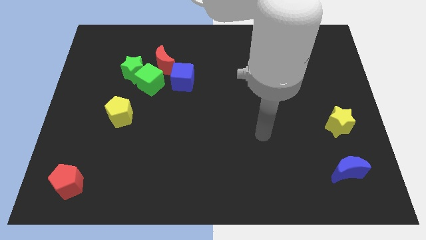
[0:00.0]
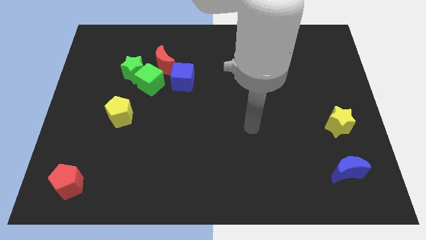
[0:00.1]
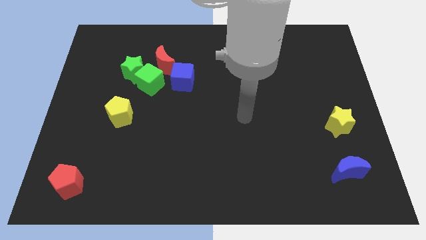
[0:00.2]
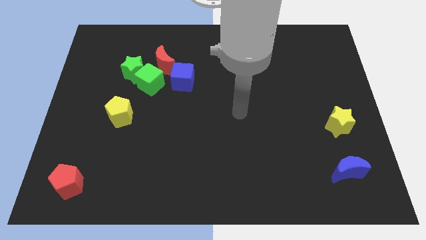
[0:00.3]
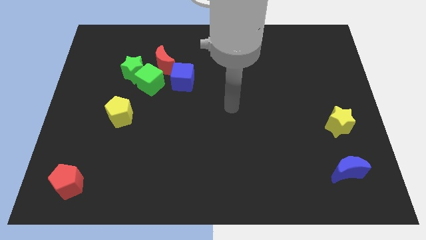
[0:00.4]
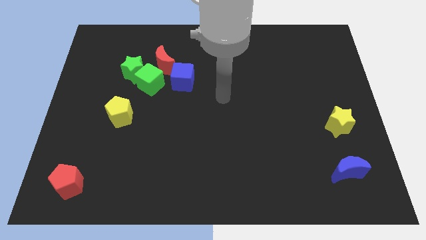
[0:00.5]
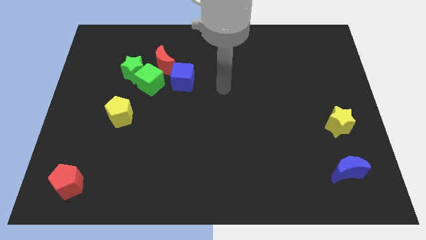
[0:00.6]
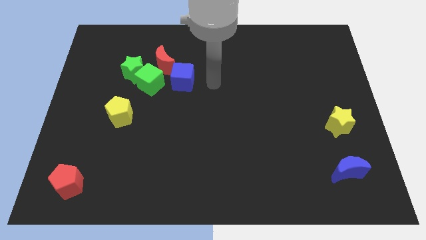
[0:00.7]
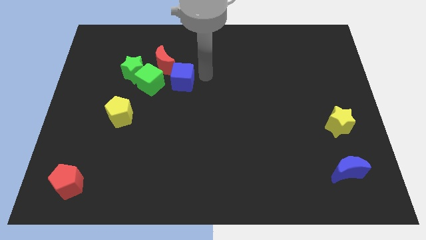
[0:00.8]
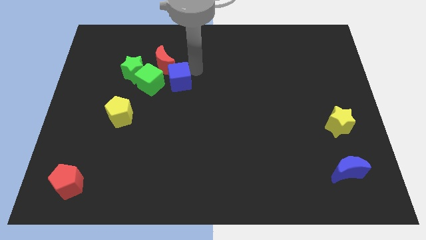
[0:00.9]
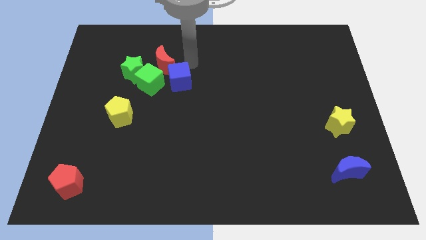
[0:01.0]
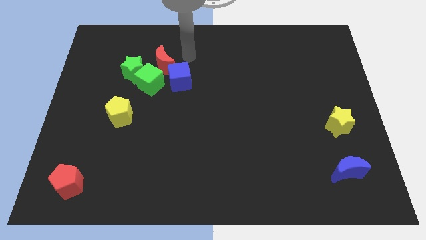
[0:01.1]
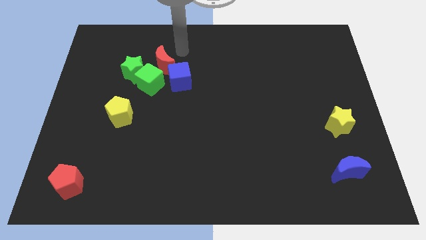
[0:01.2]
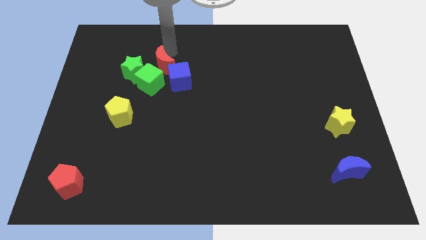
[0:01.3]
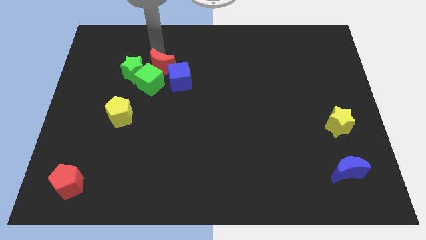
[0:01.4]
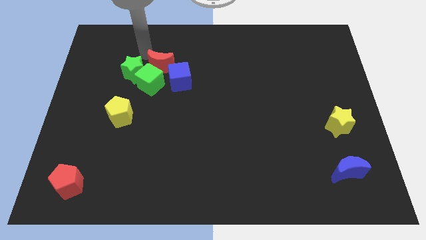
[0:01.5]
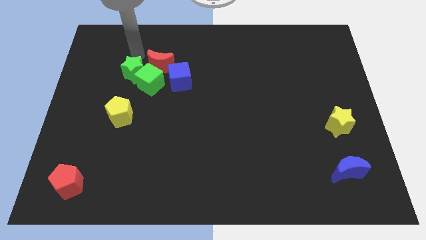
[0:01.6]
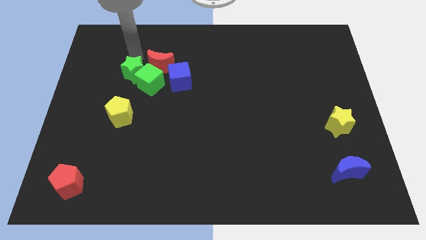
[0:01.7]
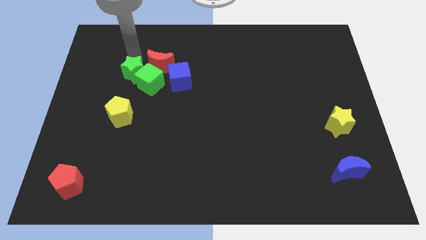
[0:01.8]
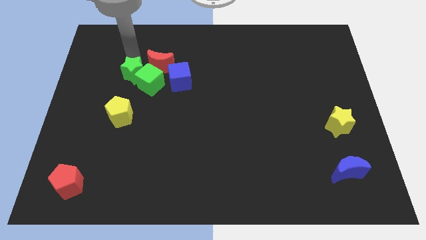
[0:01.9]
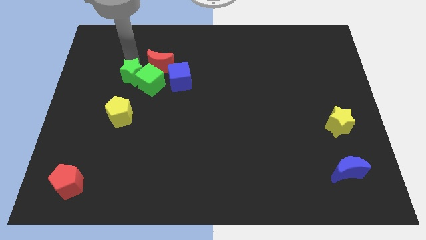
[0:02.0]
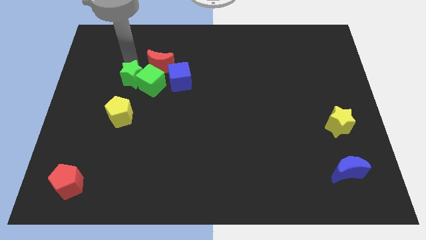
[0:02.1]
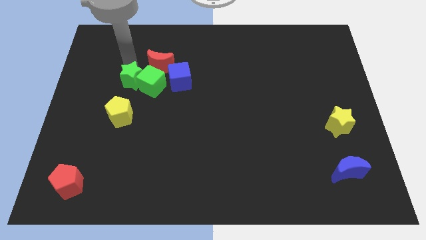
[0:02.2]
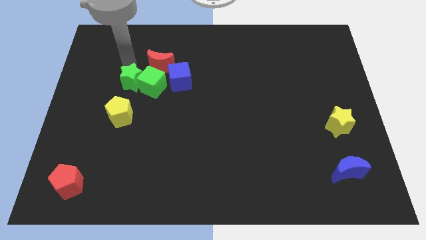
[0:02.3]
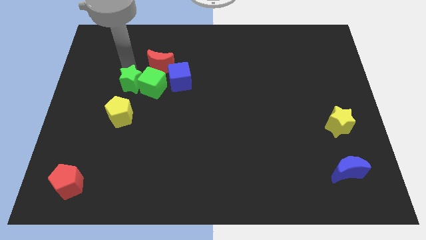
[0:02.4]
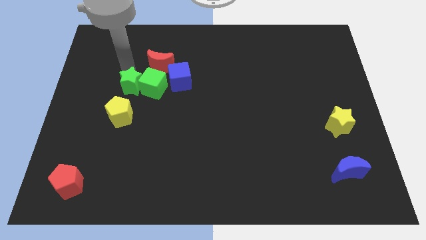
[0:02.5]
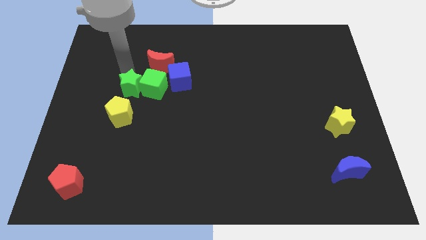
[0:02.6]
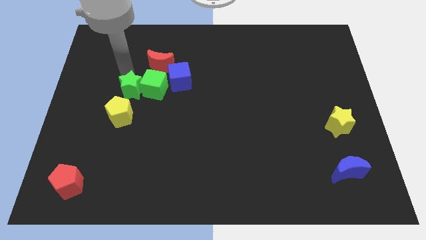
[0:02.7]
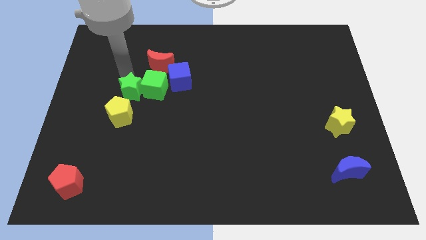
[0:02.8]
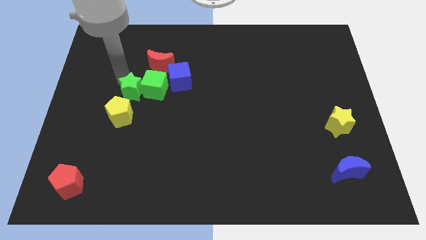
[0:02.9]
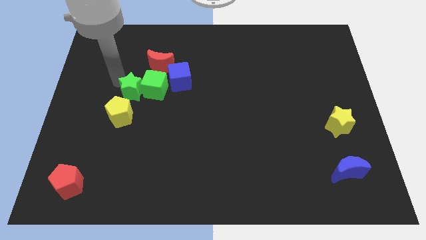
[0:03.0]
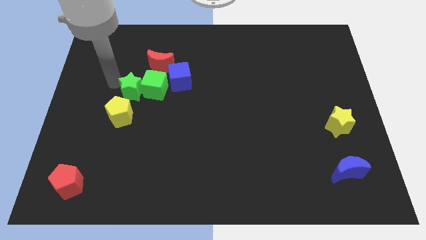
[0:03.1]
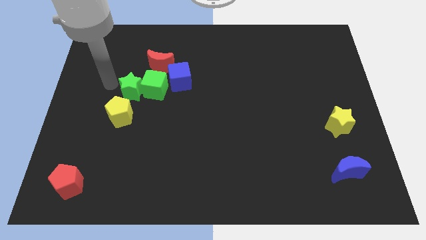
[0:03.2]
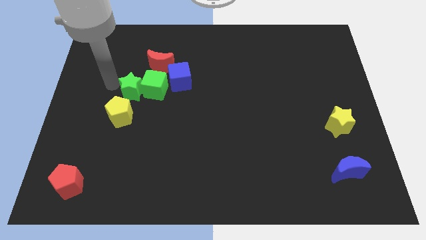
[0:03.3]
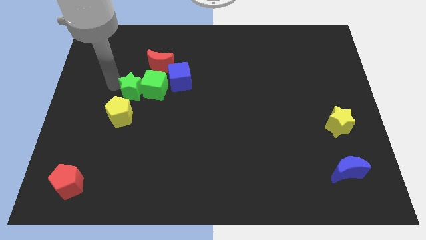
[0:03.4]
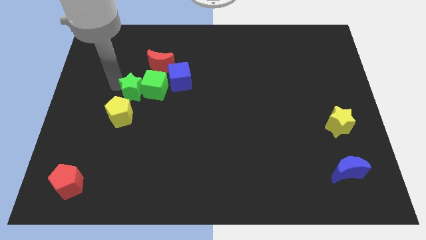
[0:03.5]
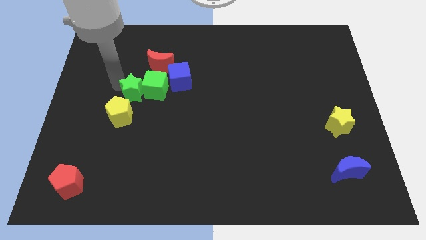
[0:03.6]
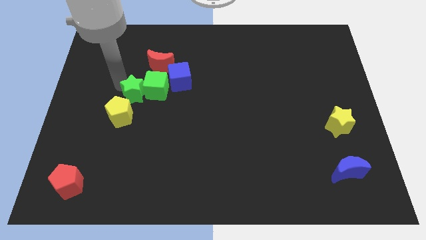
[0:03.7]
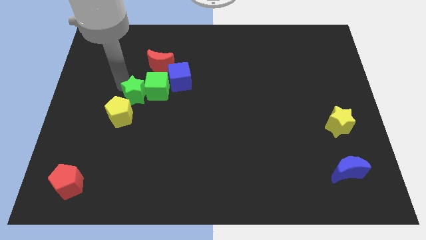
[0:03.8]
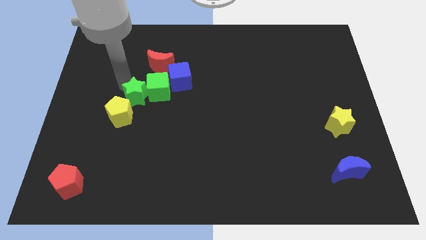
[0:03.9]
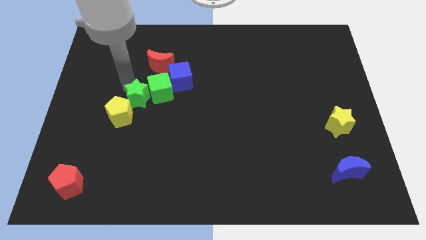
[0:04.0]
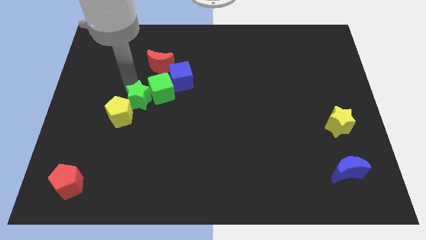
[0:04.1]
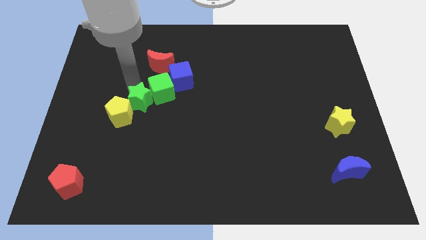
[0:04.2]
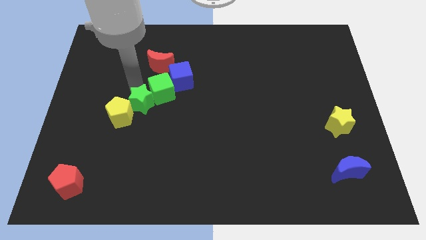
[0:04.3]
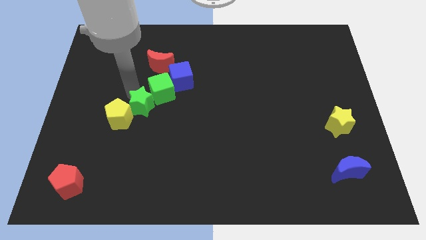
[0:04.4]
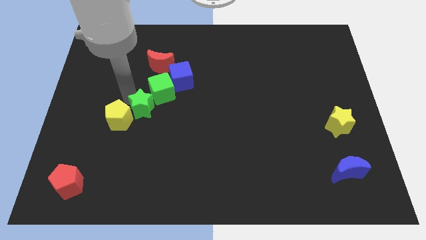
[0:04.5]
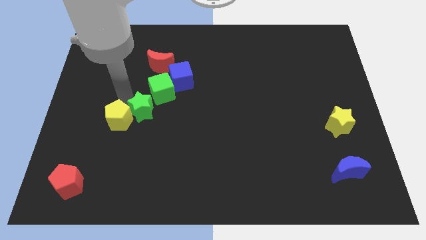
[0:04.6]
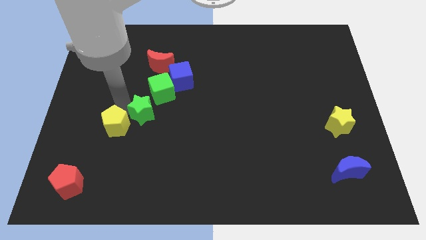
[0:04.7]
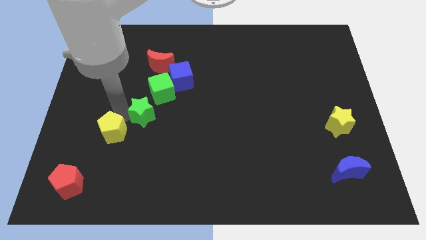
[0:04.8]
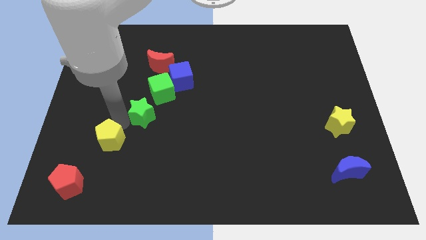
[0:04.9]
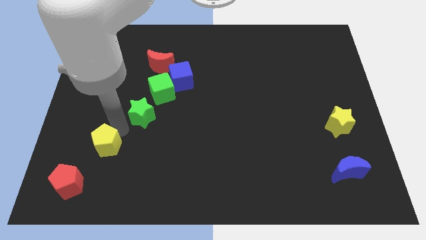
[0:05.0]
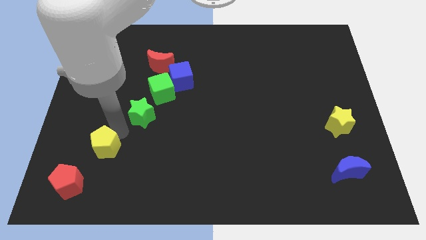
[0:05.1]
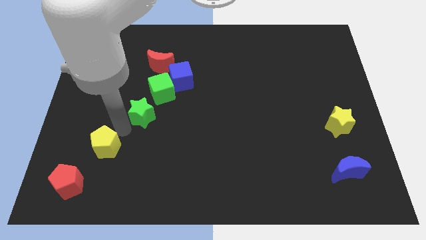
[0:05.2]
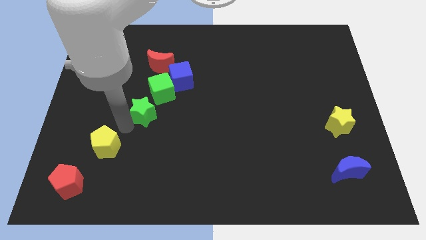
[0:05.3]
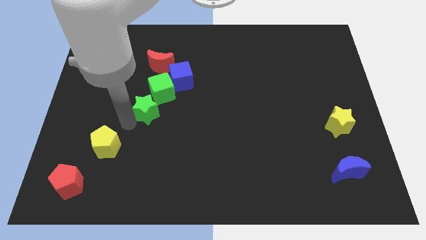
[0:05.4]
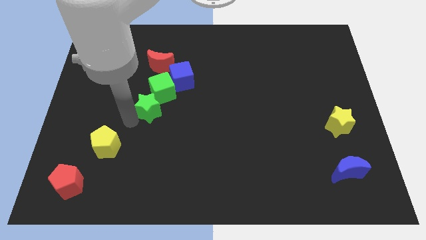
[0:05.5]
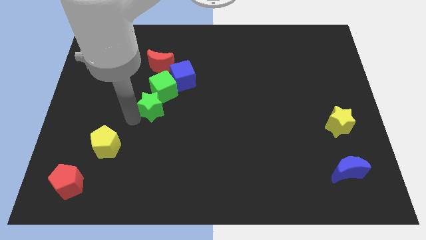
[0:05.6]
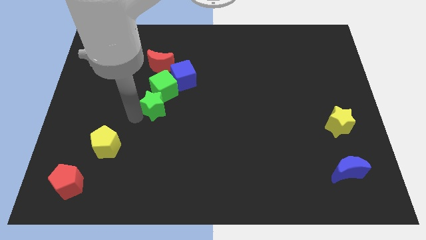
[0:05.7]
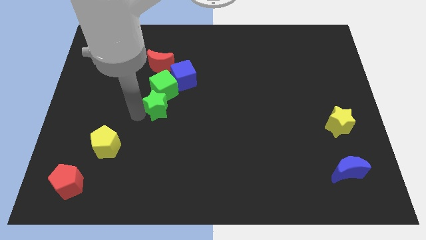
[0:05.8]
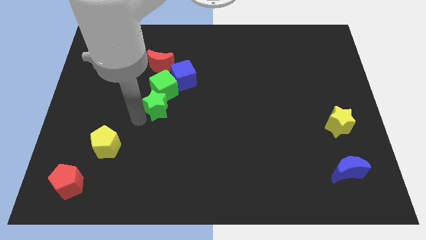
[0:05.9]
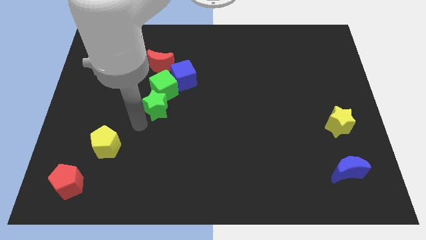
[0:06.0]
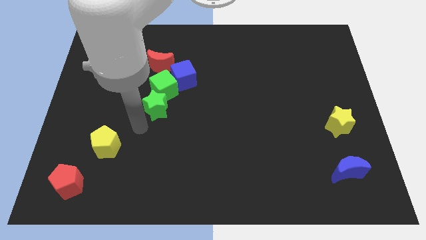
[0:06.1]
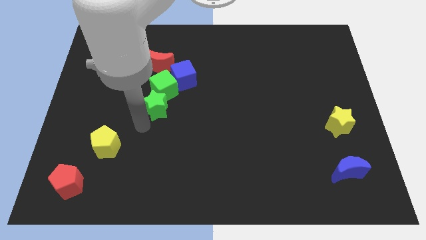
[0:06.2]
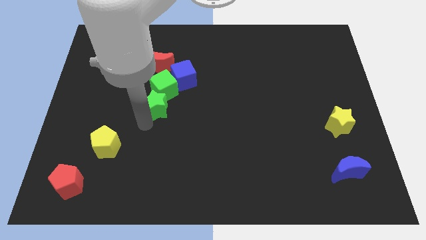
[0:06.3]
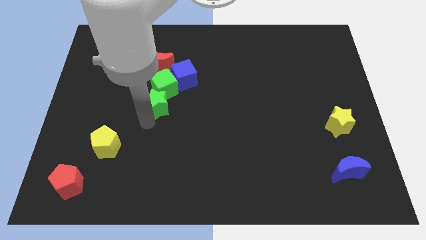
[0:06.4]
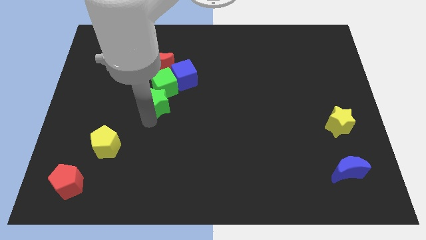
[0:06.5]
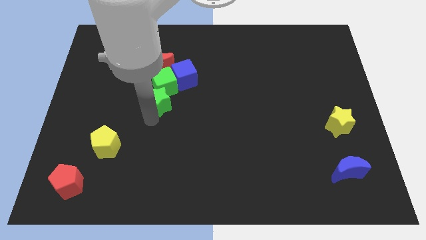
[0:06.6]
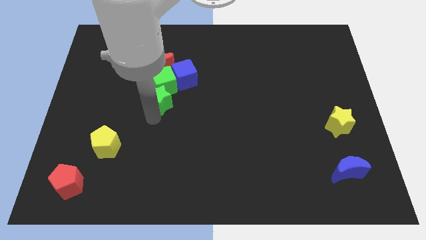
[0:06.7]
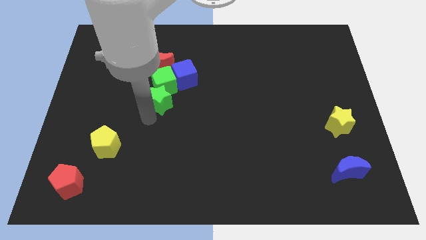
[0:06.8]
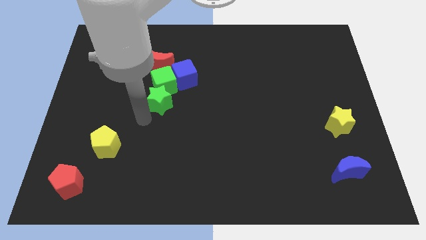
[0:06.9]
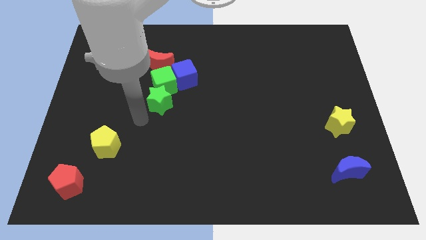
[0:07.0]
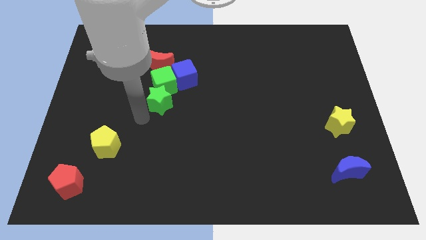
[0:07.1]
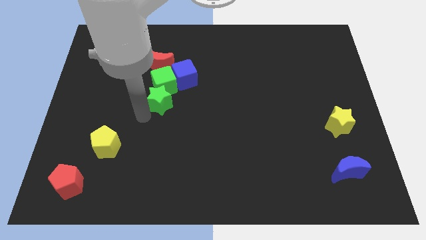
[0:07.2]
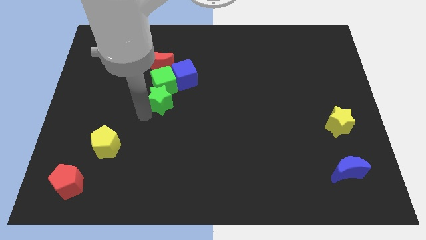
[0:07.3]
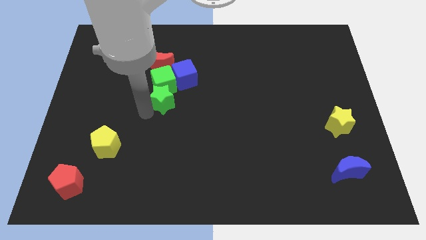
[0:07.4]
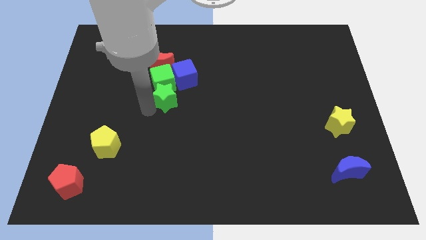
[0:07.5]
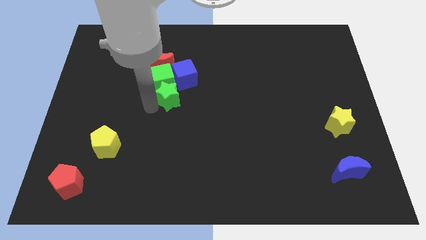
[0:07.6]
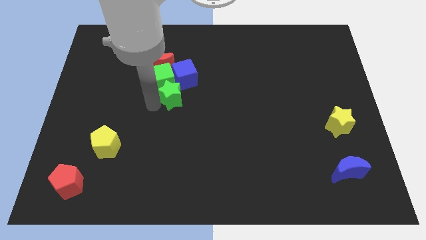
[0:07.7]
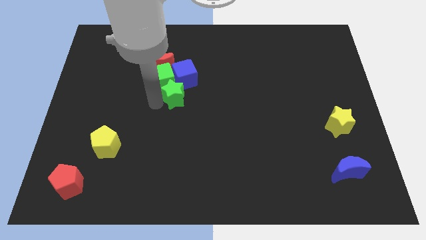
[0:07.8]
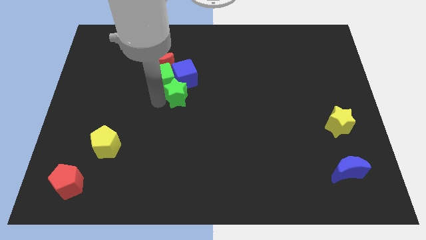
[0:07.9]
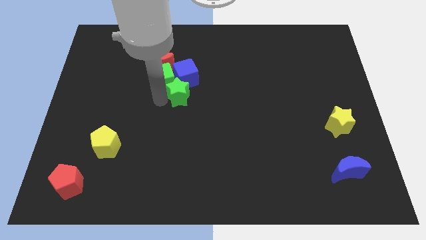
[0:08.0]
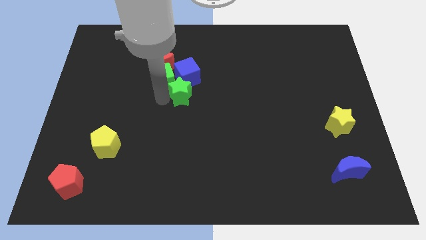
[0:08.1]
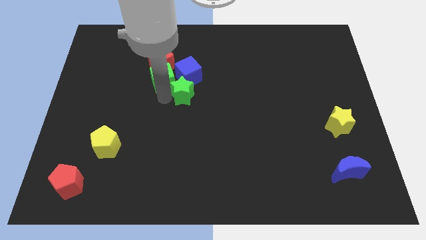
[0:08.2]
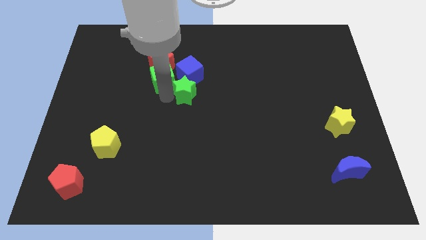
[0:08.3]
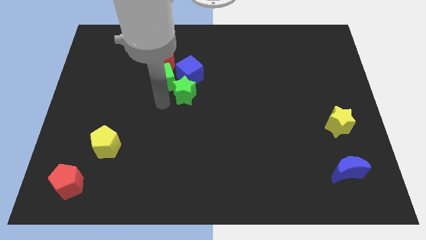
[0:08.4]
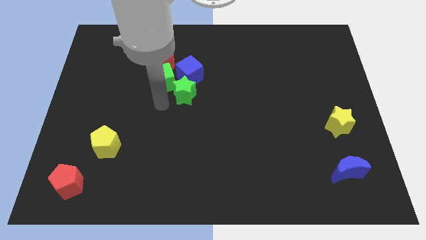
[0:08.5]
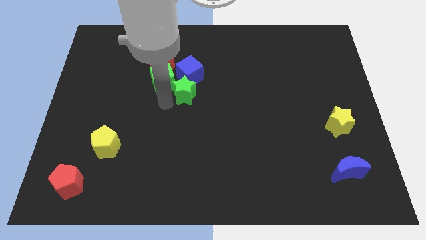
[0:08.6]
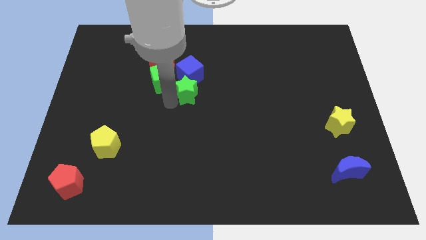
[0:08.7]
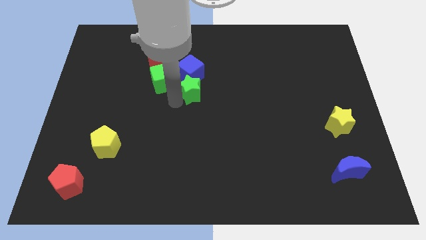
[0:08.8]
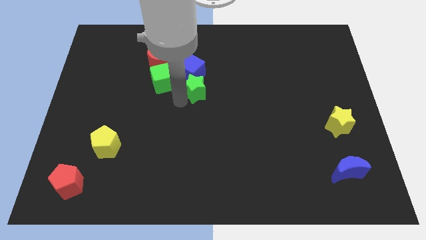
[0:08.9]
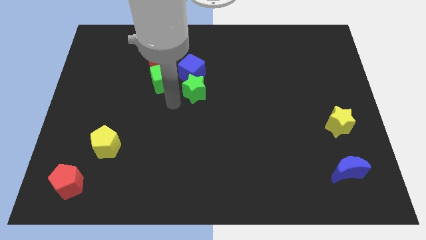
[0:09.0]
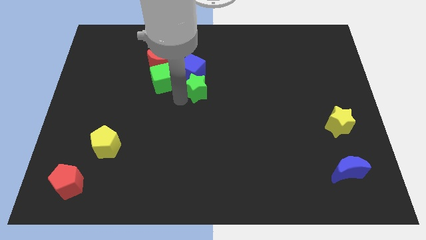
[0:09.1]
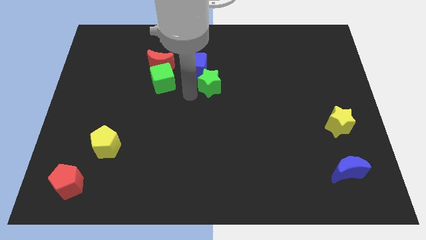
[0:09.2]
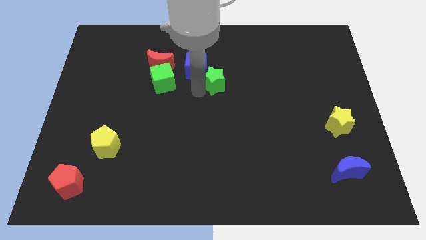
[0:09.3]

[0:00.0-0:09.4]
slide the green star to the right side of the blue cube
